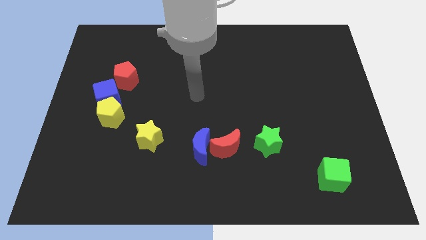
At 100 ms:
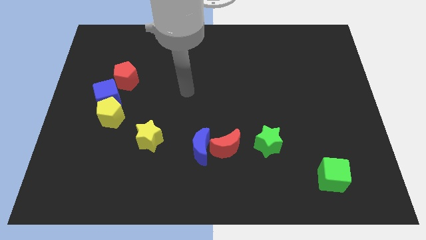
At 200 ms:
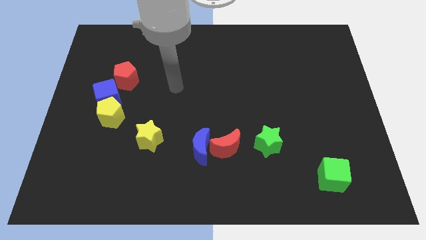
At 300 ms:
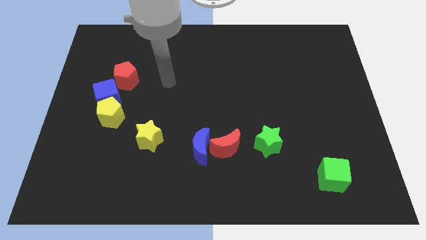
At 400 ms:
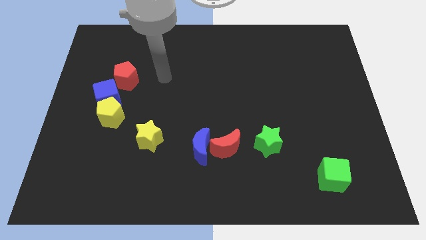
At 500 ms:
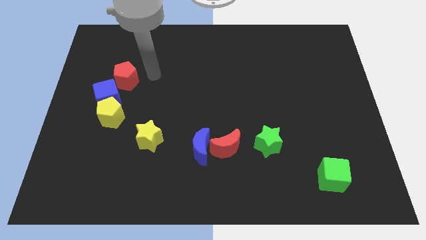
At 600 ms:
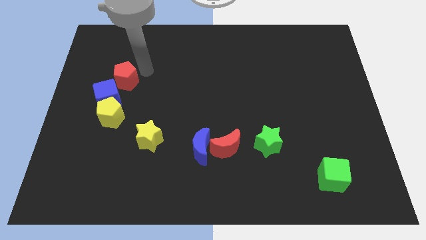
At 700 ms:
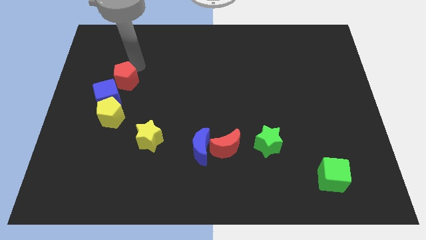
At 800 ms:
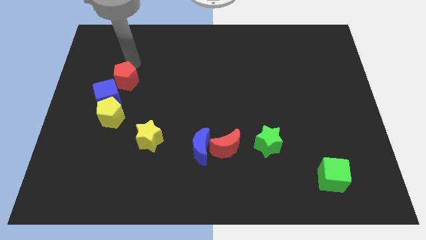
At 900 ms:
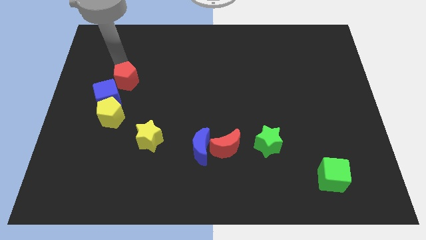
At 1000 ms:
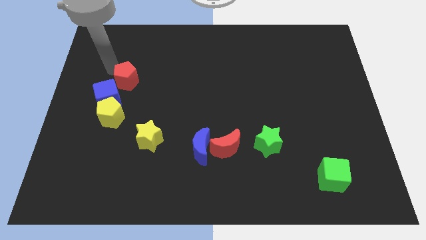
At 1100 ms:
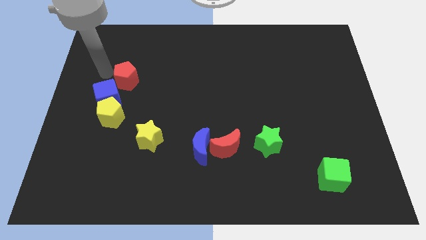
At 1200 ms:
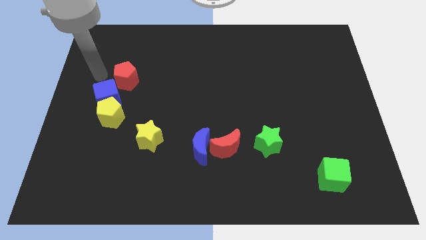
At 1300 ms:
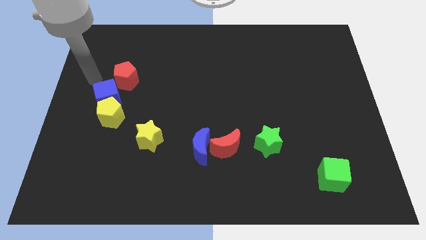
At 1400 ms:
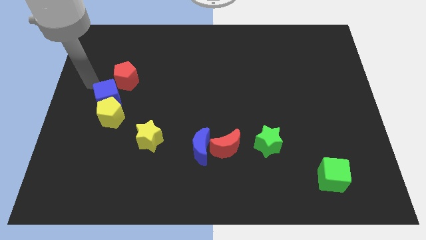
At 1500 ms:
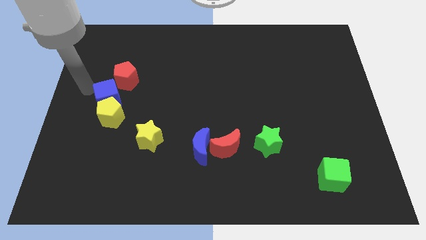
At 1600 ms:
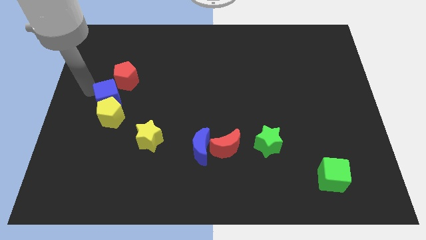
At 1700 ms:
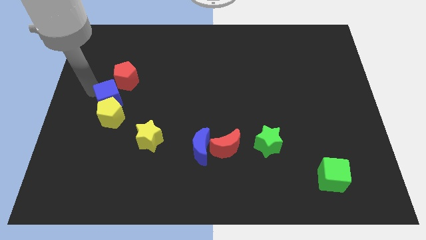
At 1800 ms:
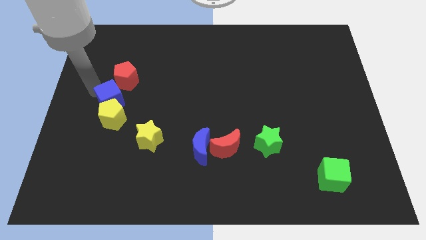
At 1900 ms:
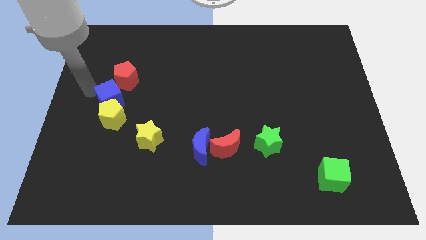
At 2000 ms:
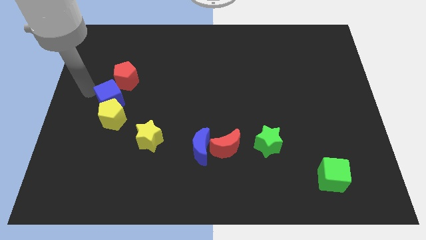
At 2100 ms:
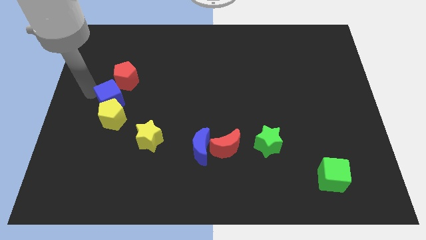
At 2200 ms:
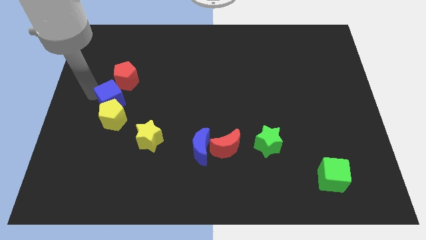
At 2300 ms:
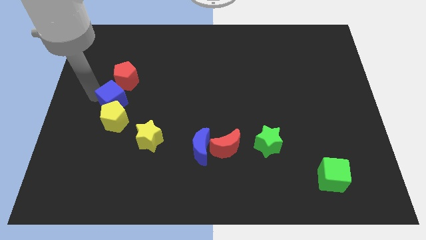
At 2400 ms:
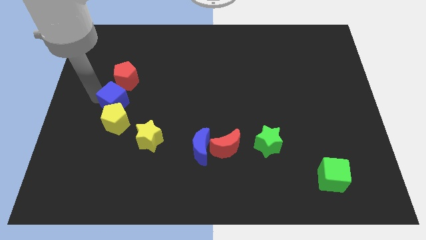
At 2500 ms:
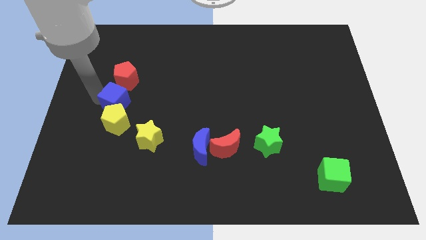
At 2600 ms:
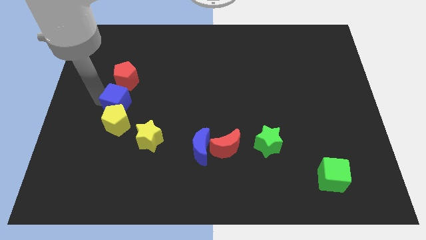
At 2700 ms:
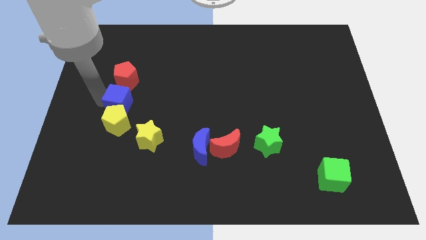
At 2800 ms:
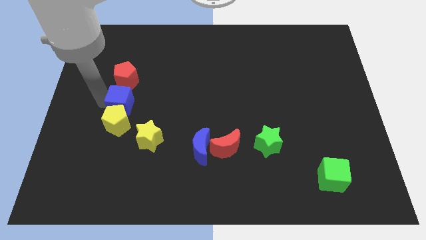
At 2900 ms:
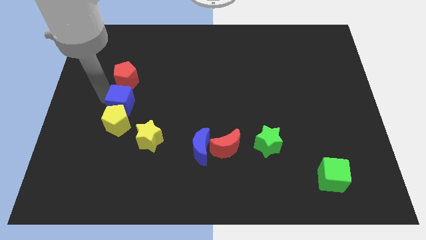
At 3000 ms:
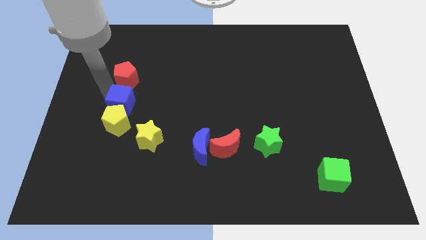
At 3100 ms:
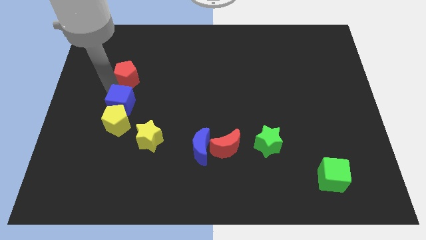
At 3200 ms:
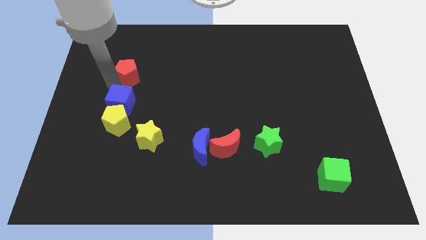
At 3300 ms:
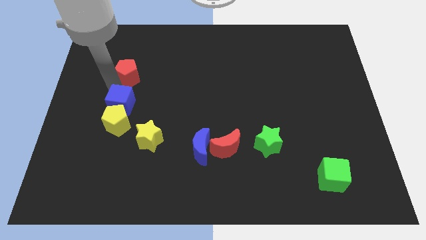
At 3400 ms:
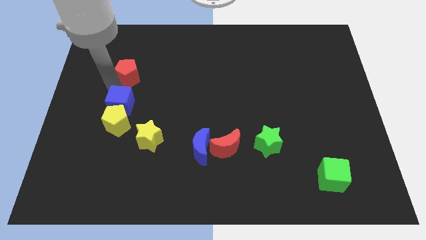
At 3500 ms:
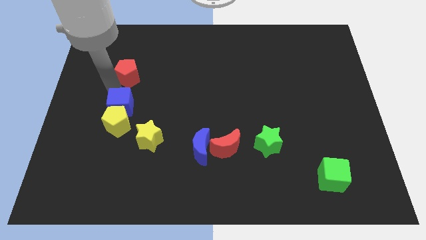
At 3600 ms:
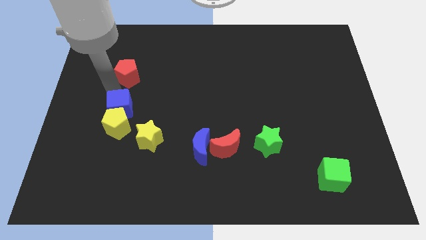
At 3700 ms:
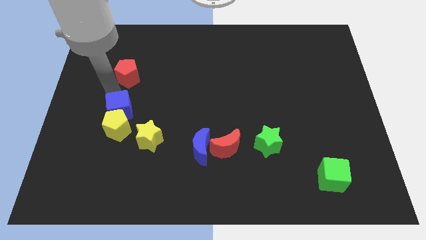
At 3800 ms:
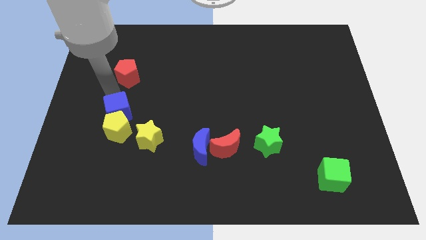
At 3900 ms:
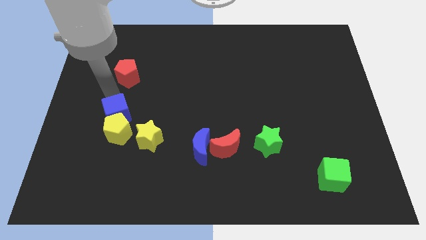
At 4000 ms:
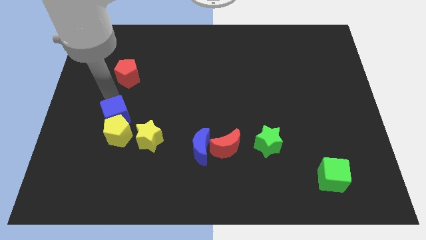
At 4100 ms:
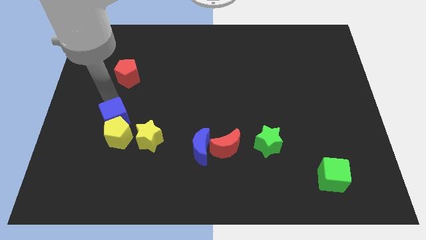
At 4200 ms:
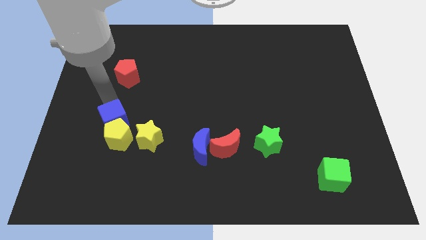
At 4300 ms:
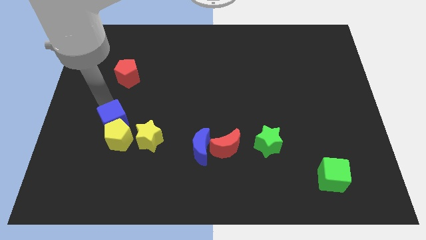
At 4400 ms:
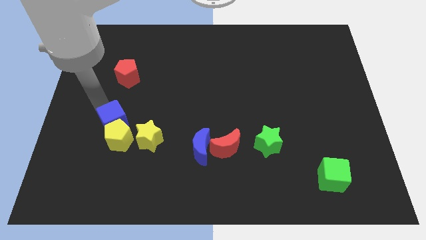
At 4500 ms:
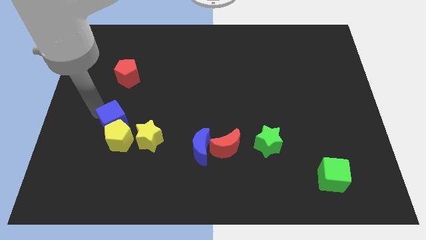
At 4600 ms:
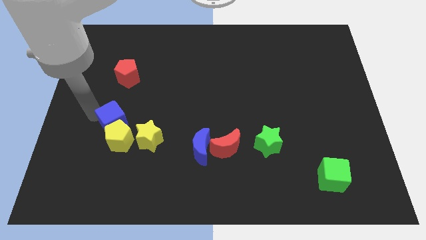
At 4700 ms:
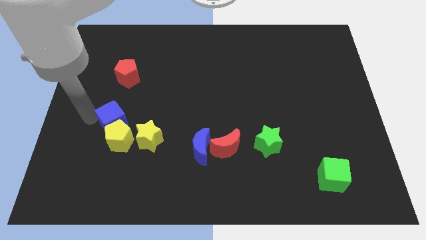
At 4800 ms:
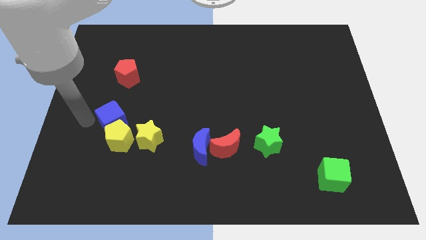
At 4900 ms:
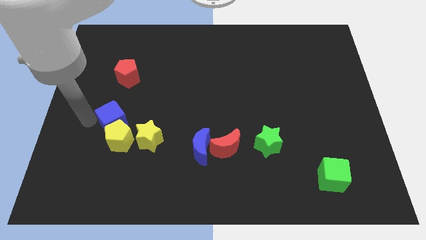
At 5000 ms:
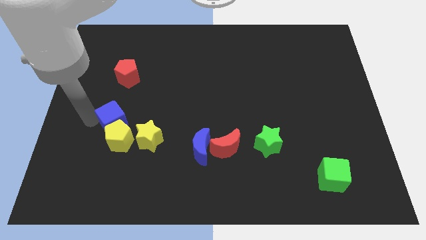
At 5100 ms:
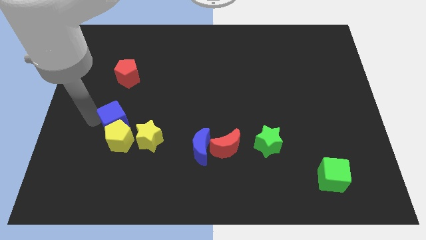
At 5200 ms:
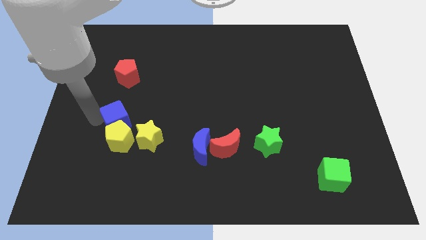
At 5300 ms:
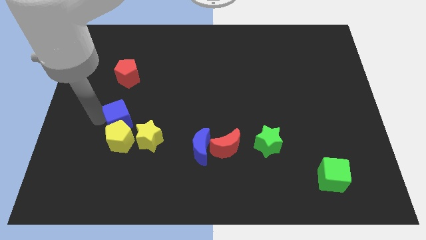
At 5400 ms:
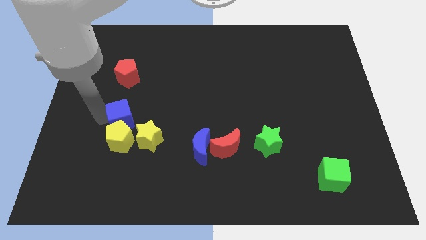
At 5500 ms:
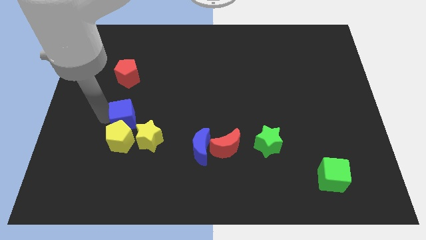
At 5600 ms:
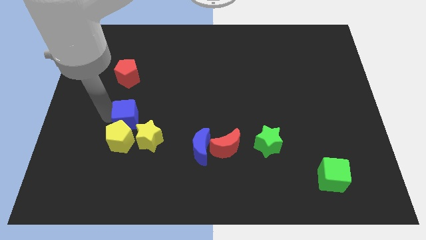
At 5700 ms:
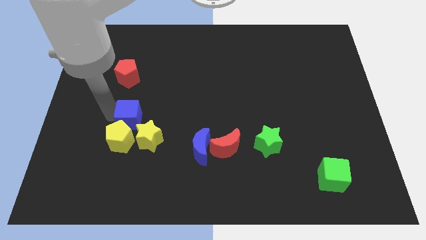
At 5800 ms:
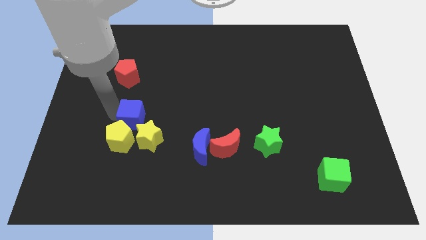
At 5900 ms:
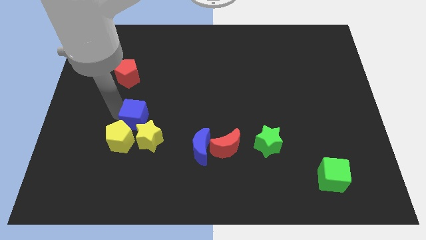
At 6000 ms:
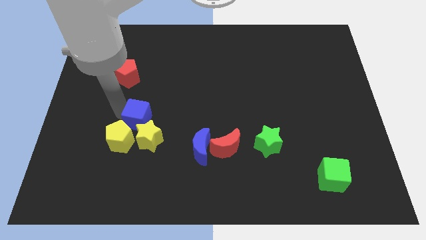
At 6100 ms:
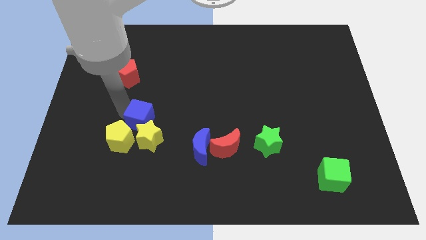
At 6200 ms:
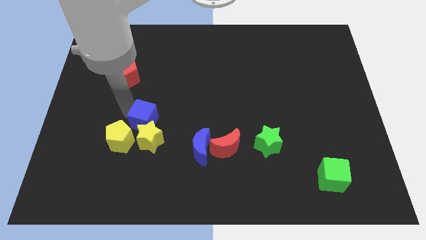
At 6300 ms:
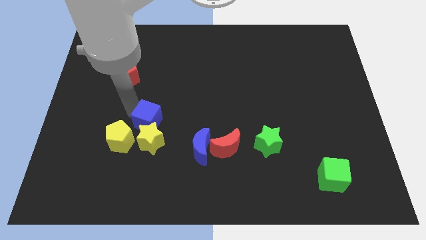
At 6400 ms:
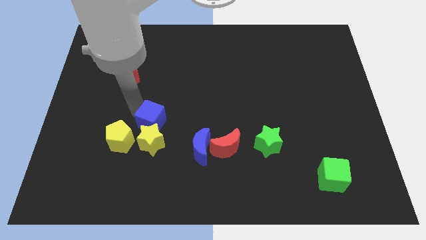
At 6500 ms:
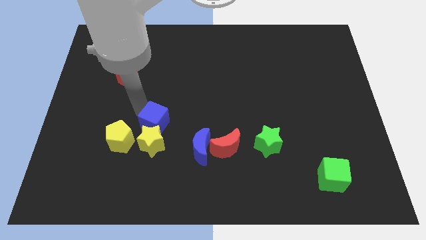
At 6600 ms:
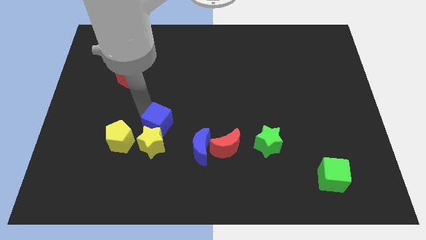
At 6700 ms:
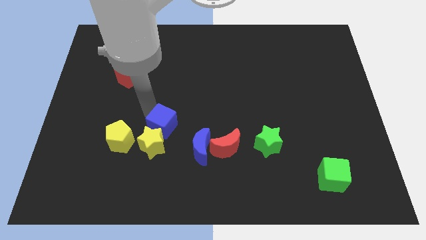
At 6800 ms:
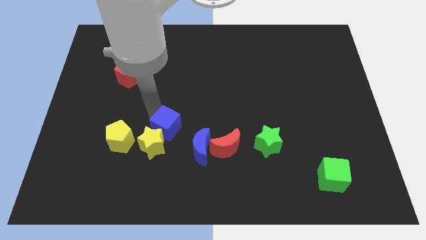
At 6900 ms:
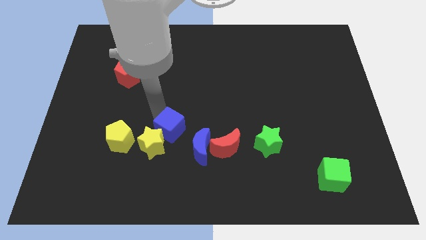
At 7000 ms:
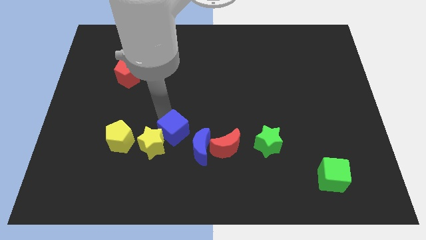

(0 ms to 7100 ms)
slide the blue cube just left of the blue moon
